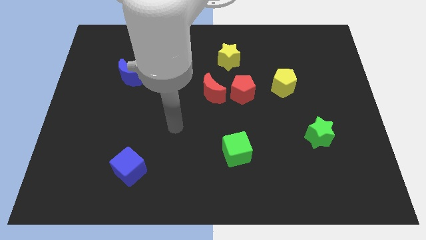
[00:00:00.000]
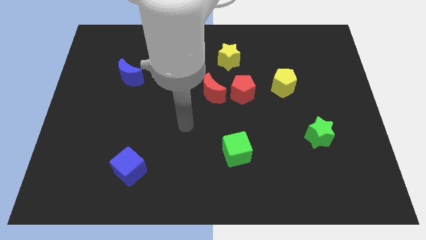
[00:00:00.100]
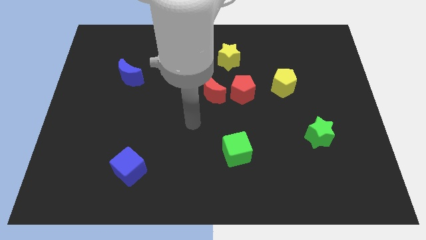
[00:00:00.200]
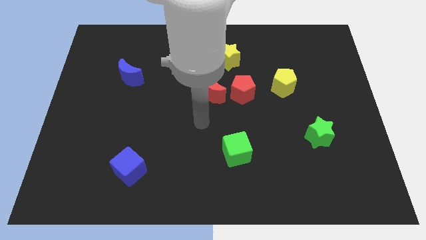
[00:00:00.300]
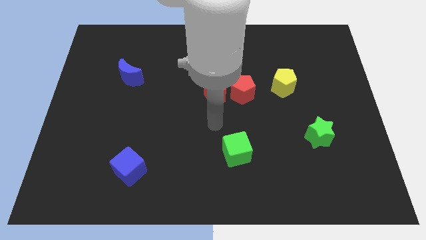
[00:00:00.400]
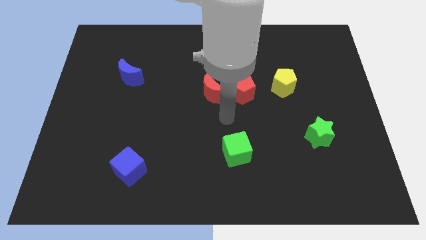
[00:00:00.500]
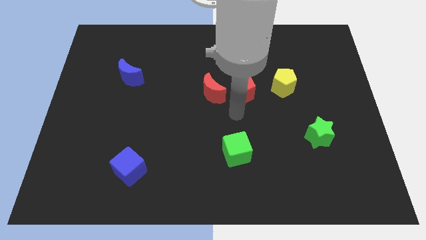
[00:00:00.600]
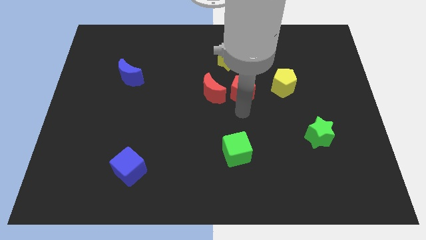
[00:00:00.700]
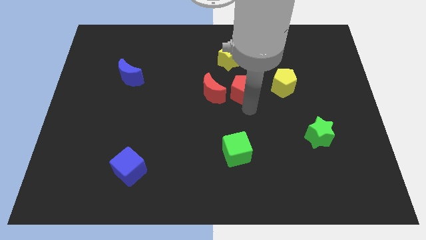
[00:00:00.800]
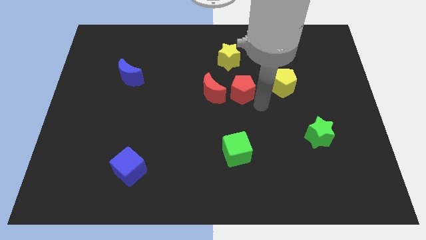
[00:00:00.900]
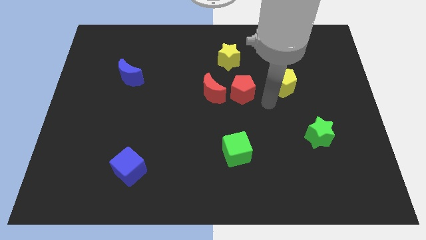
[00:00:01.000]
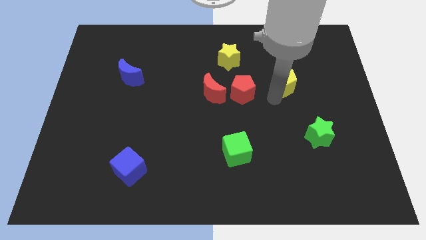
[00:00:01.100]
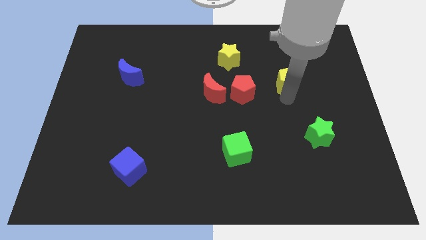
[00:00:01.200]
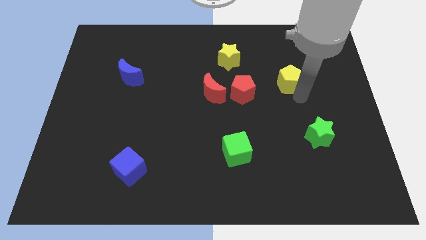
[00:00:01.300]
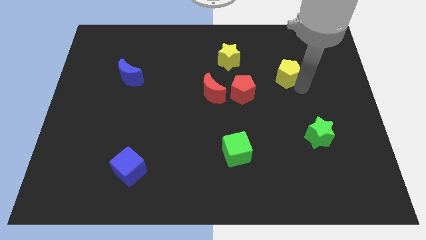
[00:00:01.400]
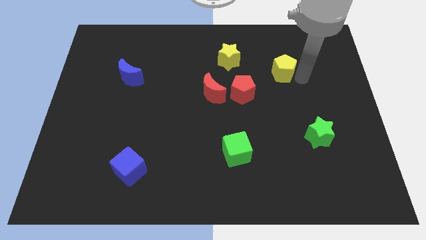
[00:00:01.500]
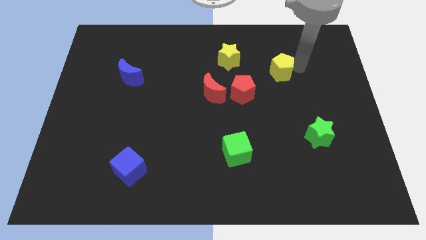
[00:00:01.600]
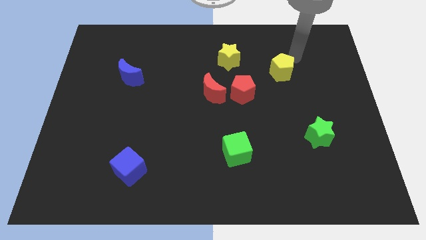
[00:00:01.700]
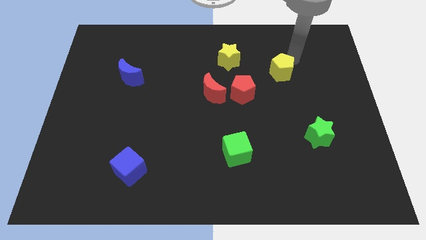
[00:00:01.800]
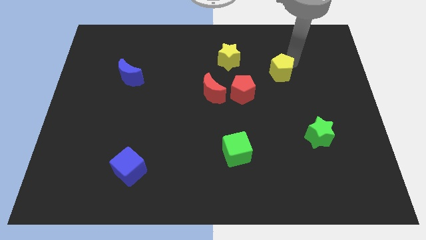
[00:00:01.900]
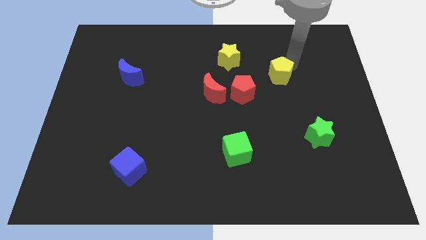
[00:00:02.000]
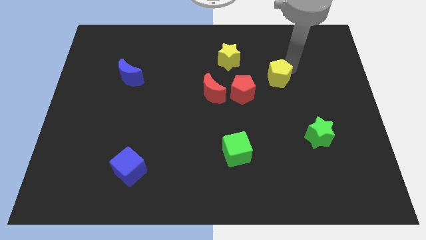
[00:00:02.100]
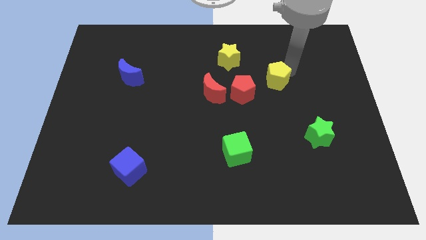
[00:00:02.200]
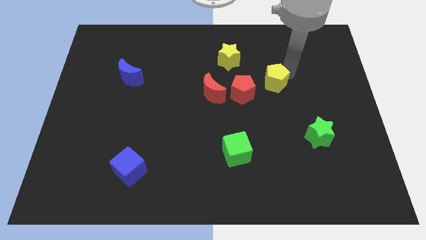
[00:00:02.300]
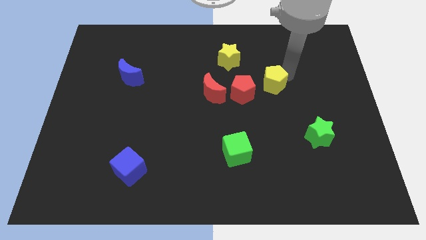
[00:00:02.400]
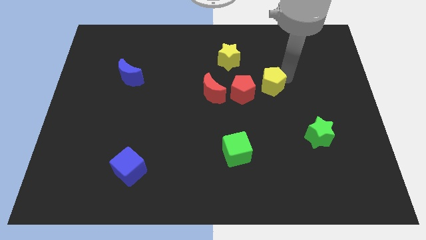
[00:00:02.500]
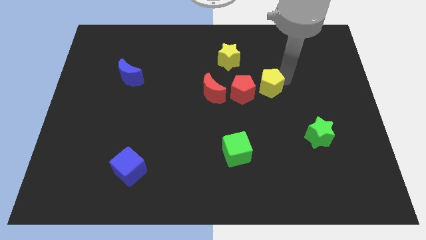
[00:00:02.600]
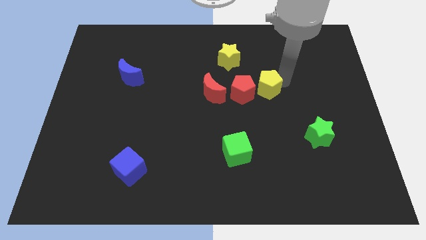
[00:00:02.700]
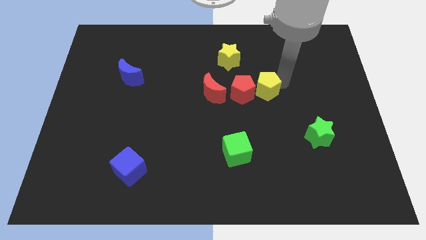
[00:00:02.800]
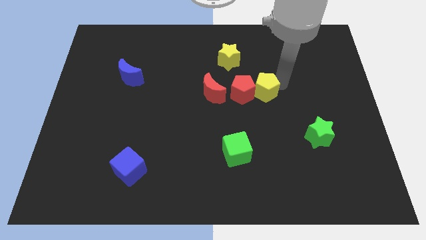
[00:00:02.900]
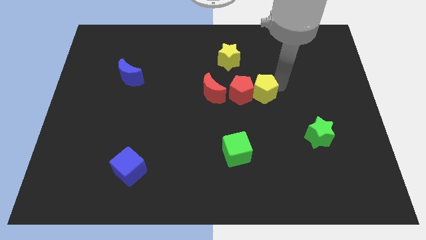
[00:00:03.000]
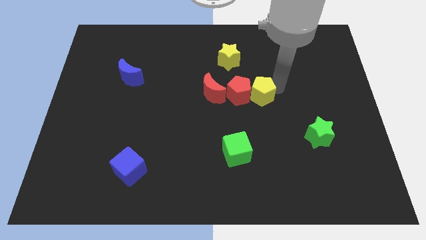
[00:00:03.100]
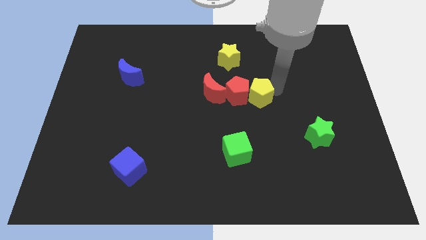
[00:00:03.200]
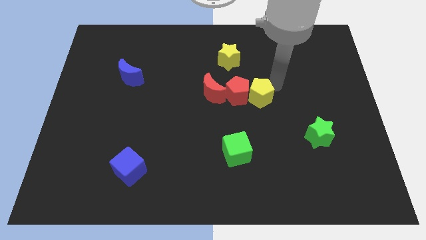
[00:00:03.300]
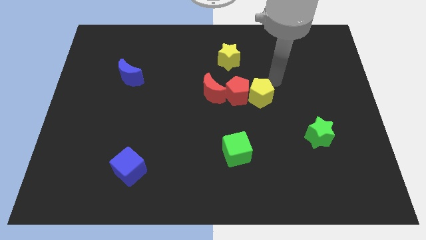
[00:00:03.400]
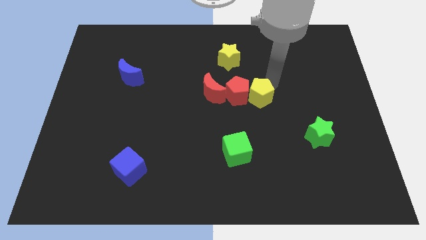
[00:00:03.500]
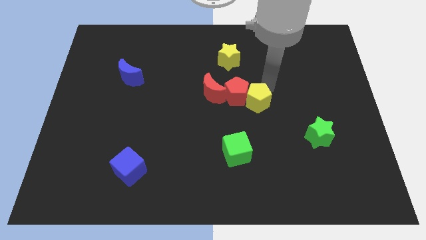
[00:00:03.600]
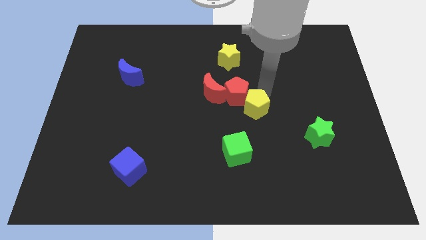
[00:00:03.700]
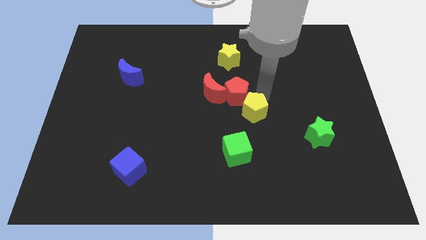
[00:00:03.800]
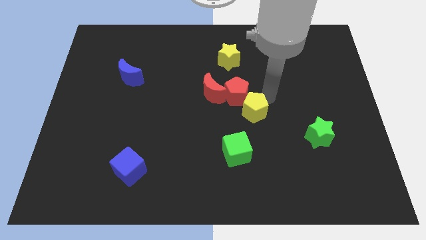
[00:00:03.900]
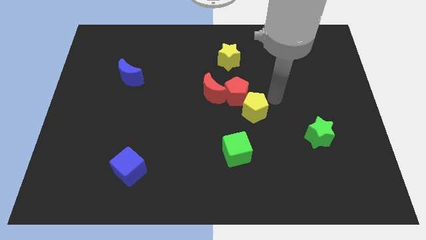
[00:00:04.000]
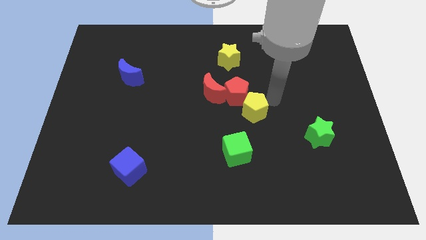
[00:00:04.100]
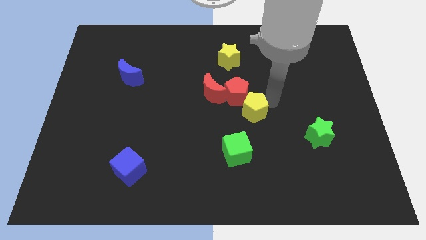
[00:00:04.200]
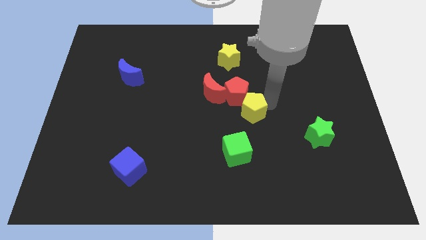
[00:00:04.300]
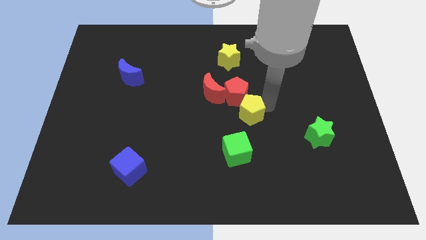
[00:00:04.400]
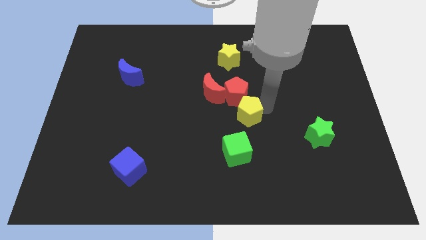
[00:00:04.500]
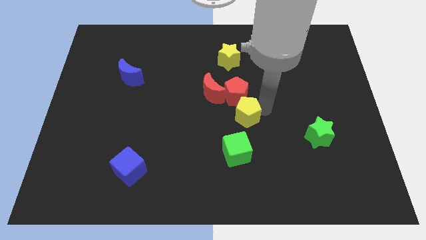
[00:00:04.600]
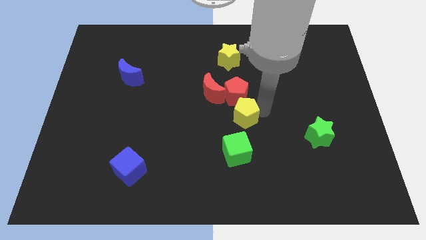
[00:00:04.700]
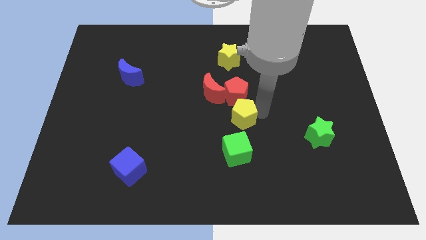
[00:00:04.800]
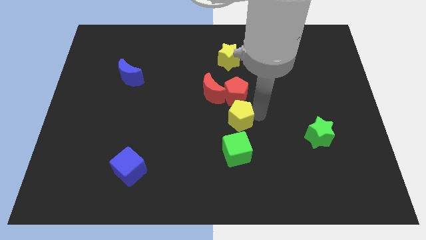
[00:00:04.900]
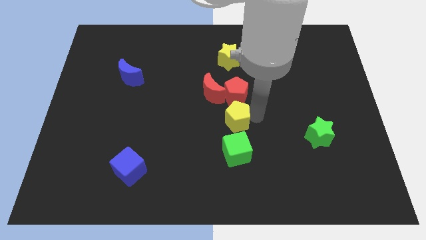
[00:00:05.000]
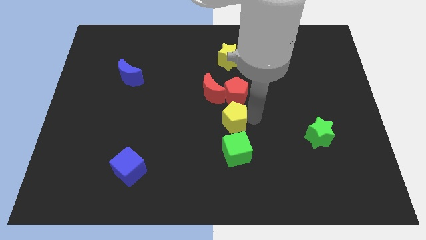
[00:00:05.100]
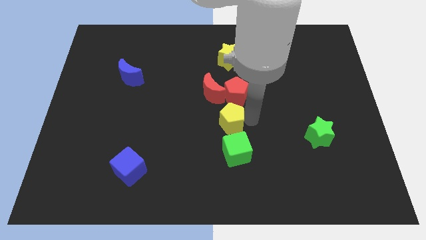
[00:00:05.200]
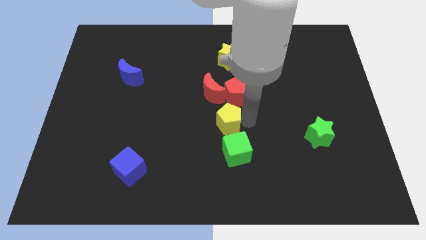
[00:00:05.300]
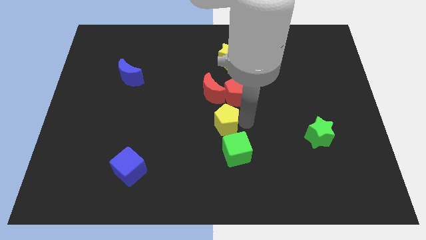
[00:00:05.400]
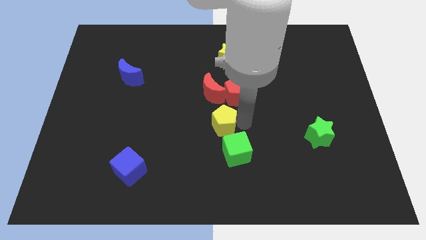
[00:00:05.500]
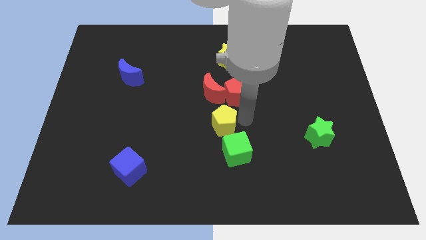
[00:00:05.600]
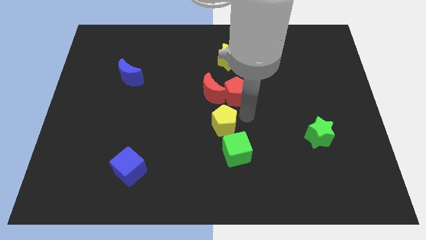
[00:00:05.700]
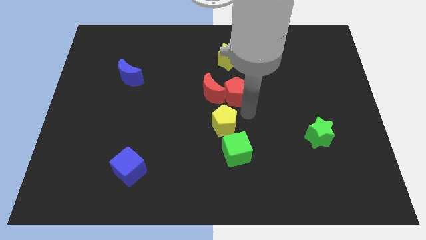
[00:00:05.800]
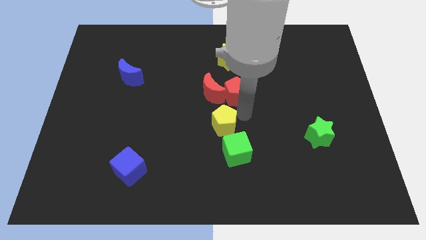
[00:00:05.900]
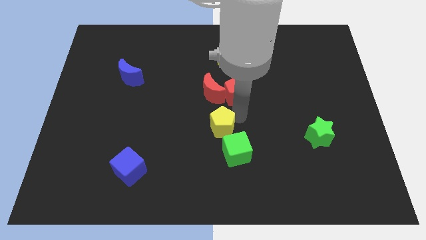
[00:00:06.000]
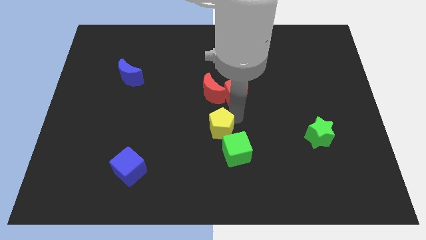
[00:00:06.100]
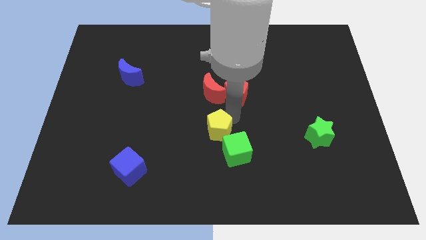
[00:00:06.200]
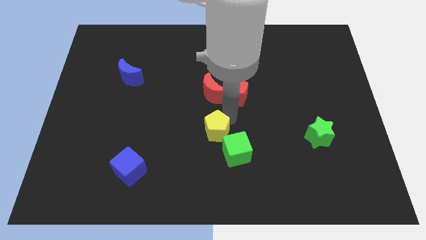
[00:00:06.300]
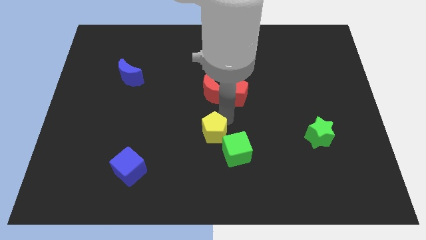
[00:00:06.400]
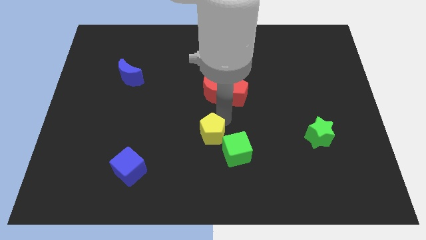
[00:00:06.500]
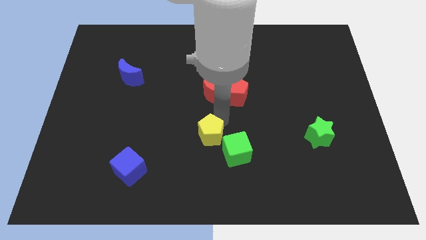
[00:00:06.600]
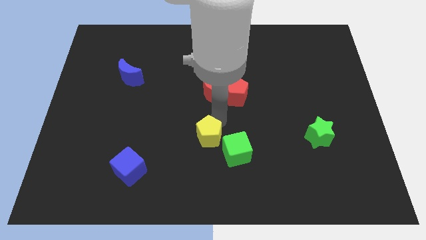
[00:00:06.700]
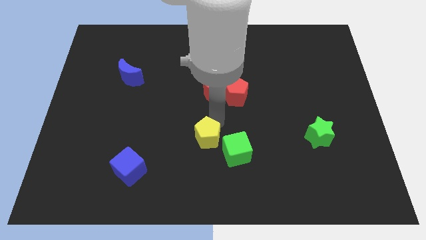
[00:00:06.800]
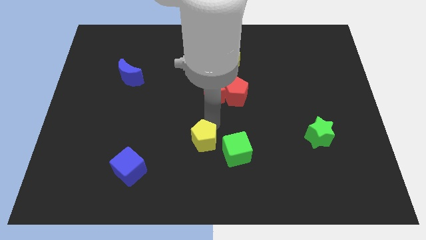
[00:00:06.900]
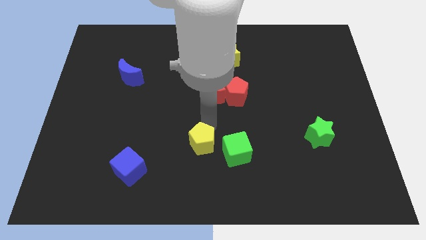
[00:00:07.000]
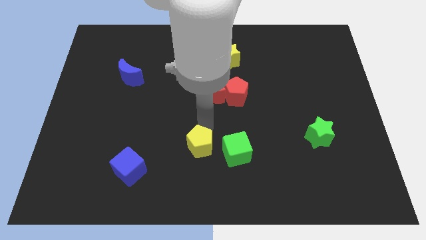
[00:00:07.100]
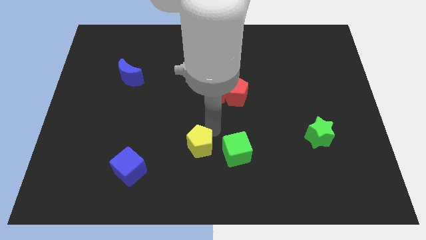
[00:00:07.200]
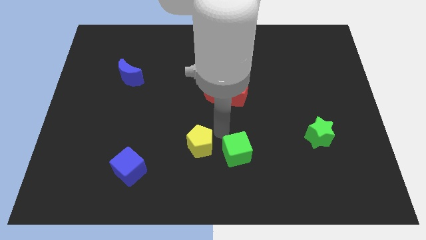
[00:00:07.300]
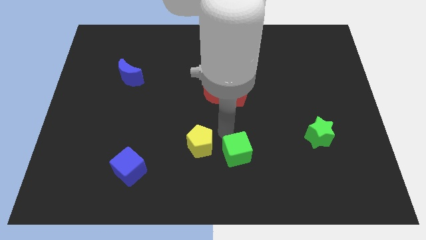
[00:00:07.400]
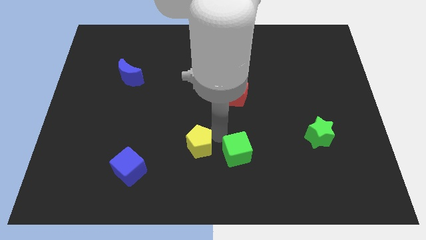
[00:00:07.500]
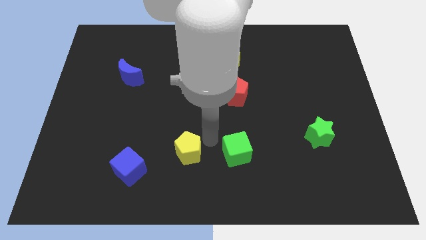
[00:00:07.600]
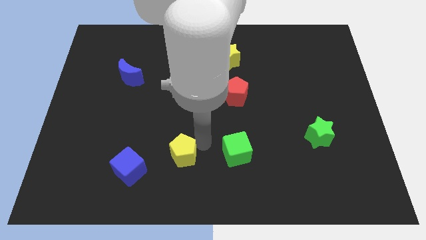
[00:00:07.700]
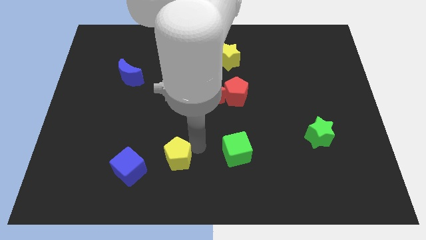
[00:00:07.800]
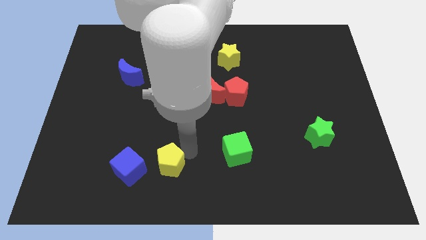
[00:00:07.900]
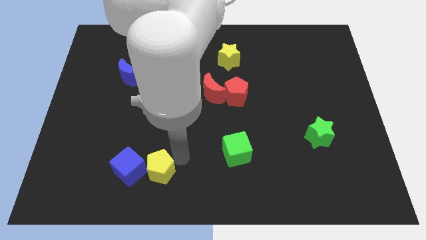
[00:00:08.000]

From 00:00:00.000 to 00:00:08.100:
slide the yellow pentagon to the blue cube
